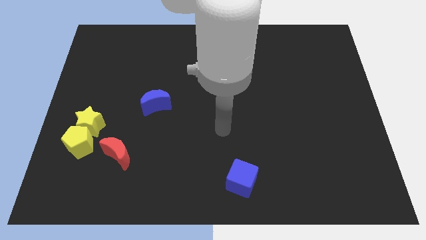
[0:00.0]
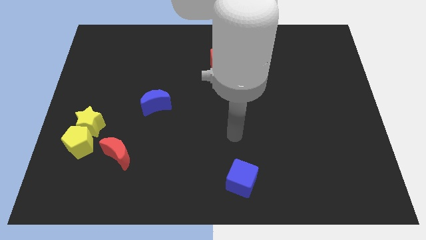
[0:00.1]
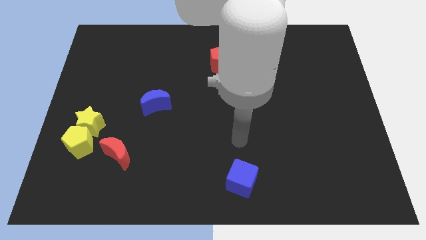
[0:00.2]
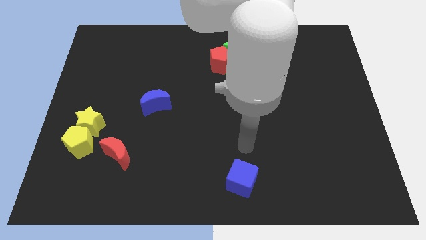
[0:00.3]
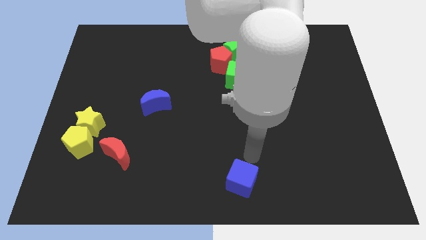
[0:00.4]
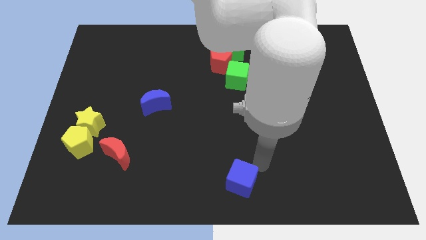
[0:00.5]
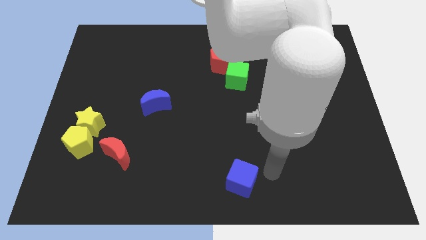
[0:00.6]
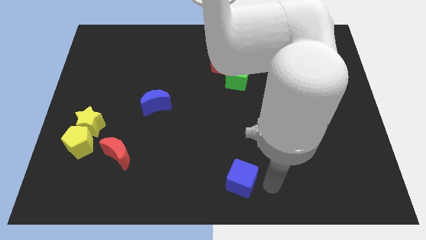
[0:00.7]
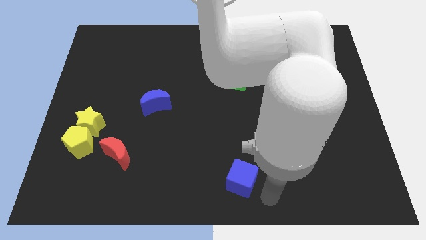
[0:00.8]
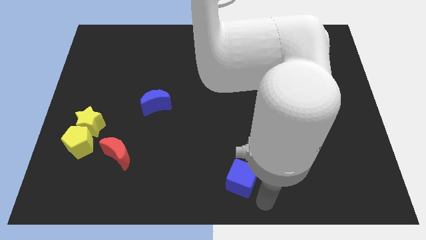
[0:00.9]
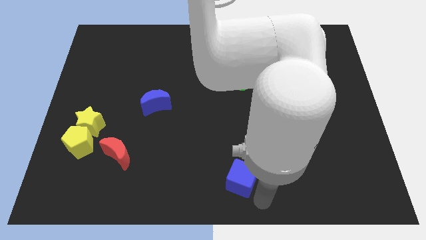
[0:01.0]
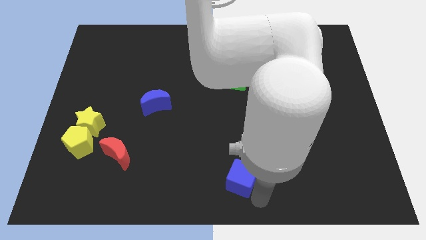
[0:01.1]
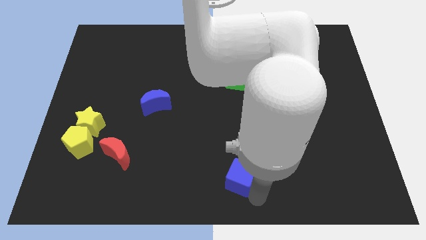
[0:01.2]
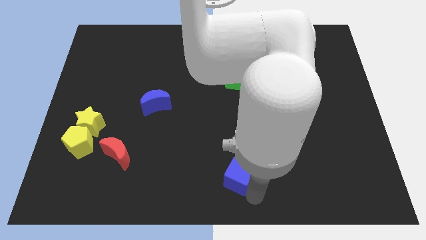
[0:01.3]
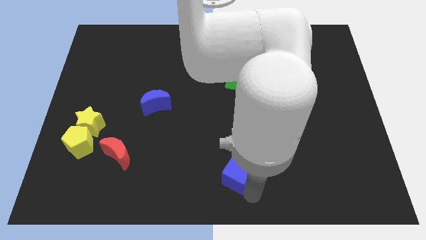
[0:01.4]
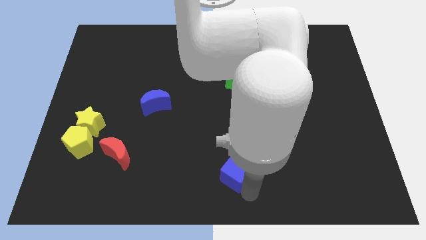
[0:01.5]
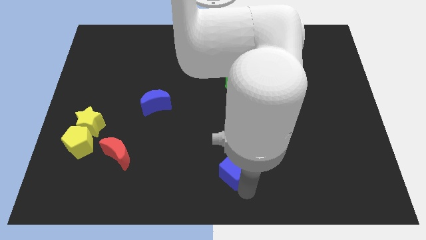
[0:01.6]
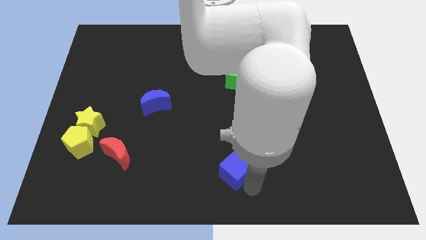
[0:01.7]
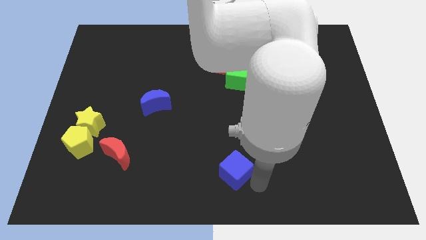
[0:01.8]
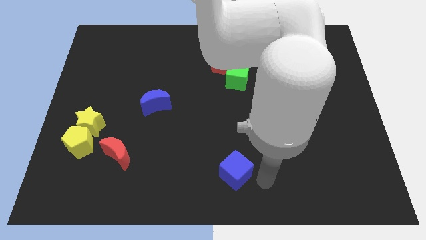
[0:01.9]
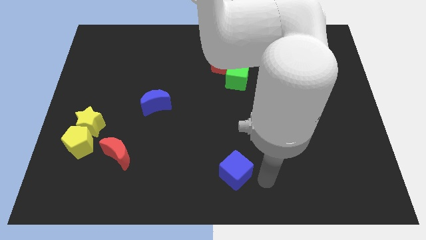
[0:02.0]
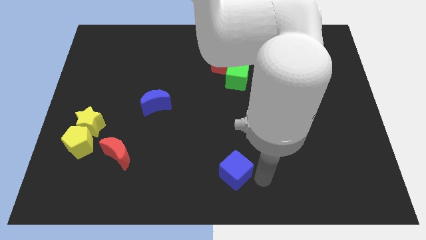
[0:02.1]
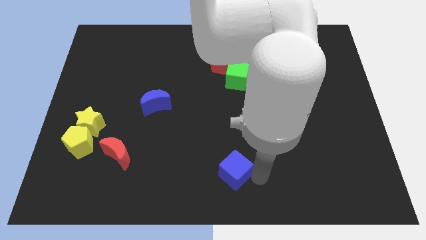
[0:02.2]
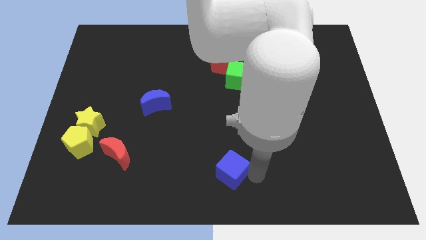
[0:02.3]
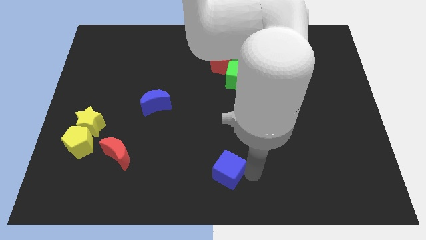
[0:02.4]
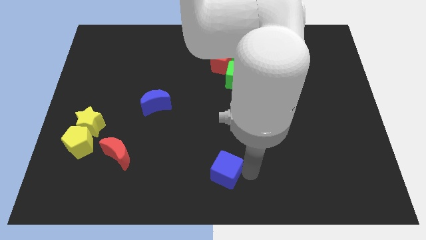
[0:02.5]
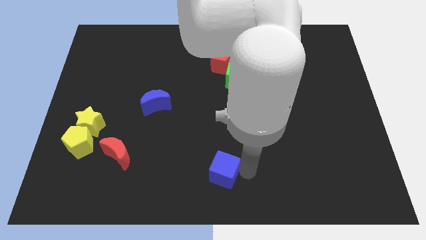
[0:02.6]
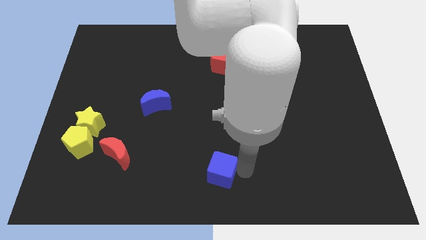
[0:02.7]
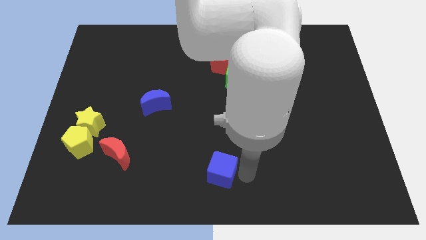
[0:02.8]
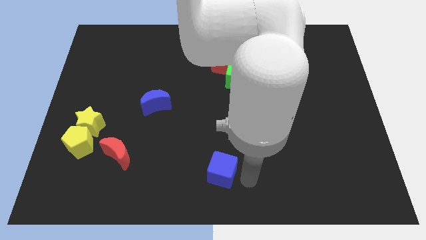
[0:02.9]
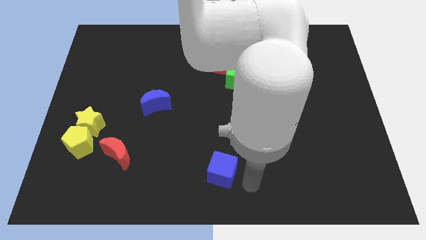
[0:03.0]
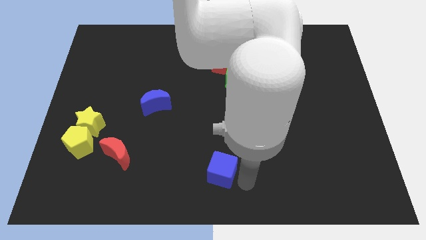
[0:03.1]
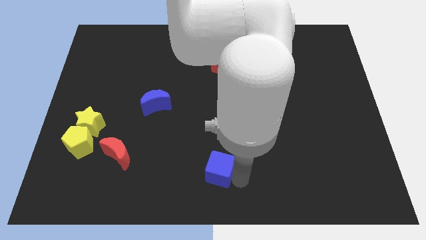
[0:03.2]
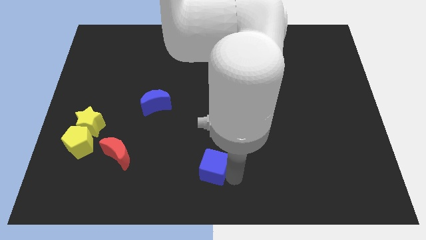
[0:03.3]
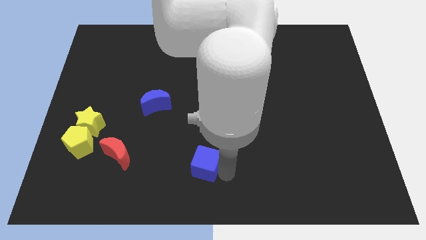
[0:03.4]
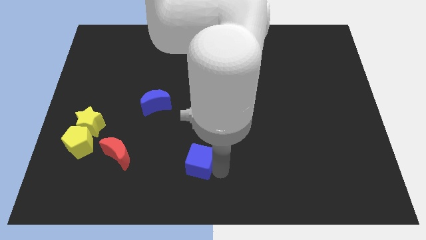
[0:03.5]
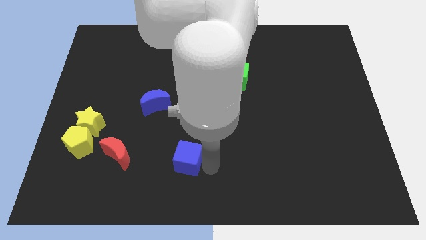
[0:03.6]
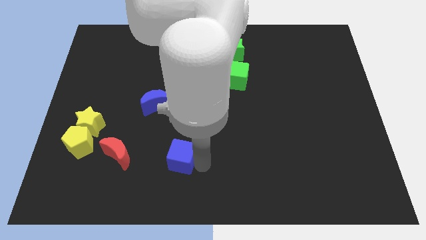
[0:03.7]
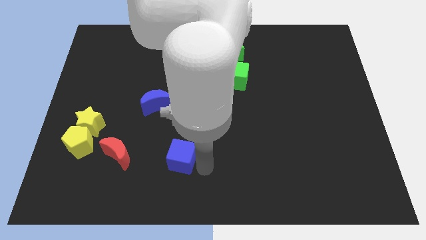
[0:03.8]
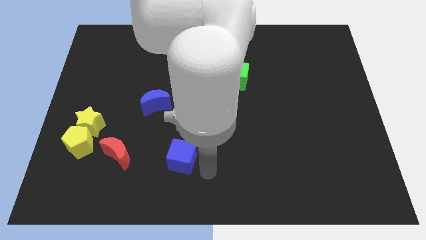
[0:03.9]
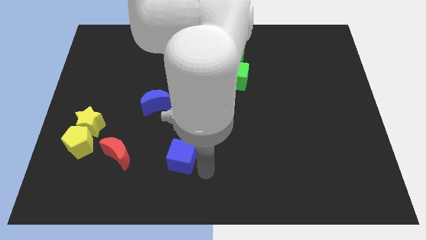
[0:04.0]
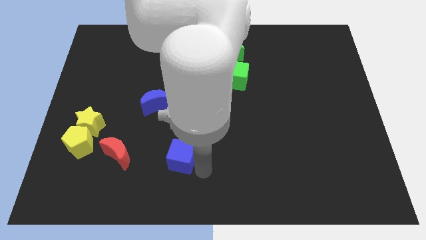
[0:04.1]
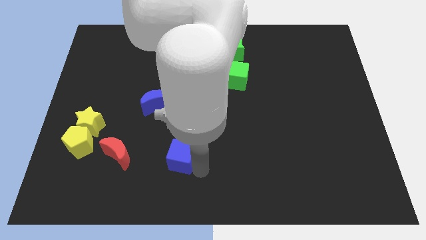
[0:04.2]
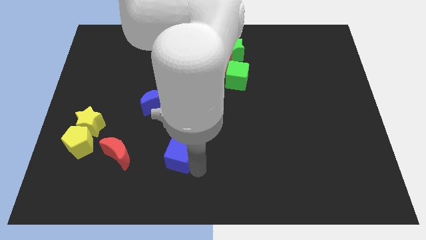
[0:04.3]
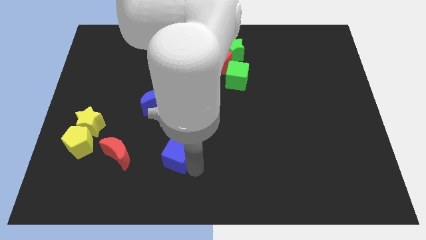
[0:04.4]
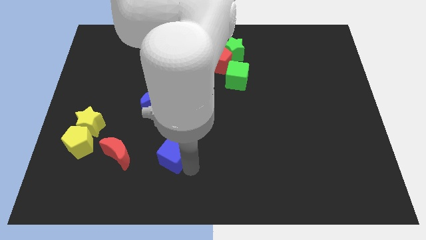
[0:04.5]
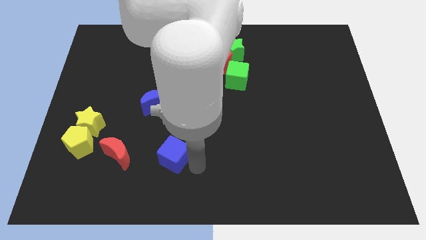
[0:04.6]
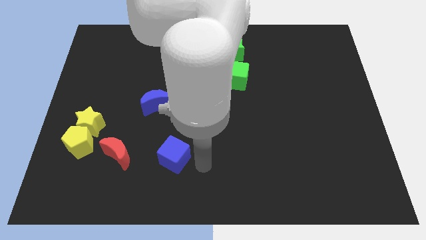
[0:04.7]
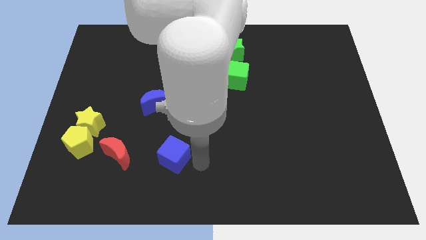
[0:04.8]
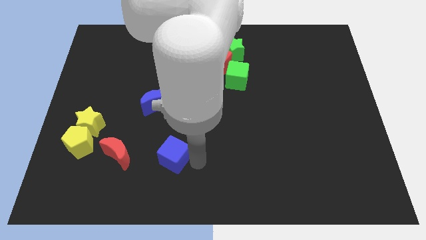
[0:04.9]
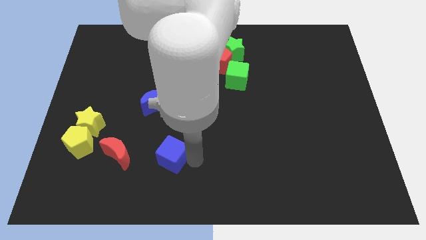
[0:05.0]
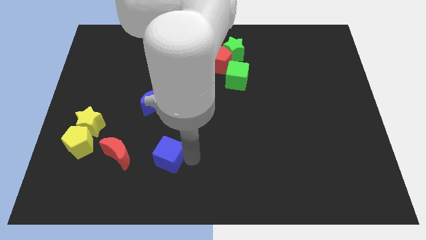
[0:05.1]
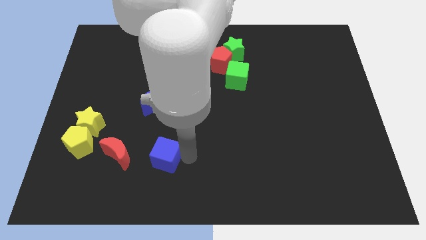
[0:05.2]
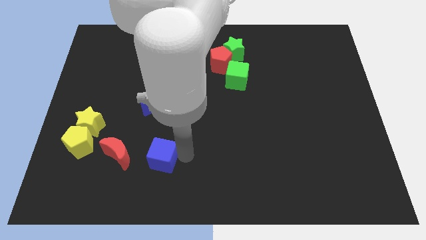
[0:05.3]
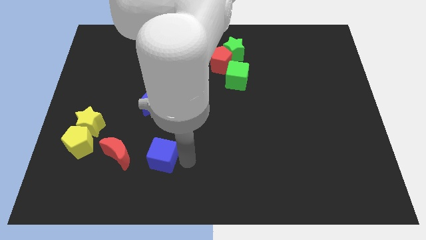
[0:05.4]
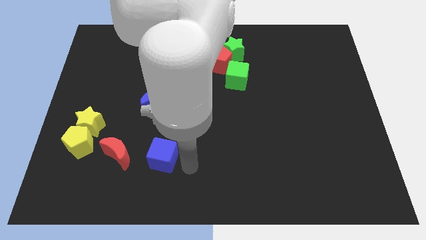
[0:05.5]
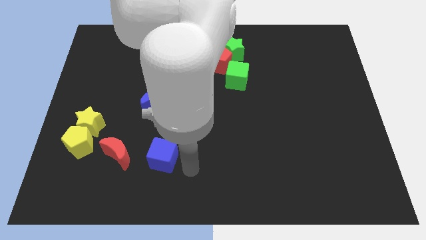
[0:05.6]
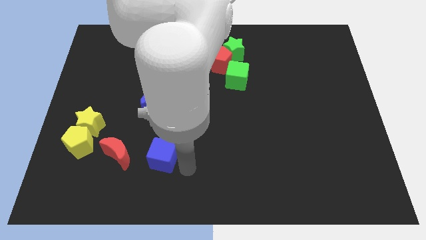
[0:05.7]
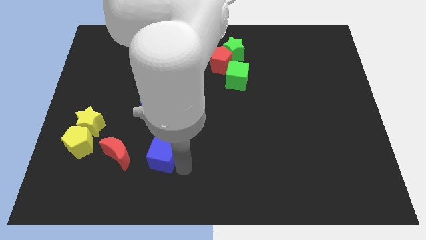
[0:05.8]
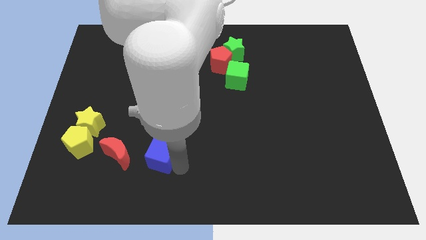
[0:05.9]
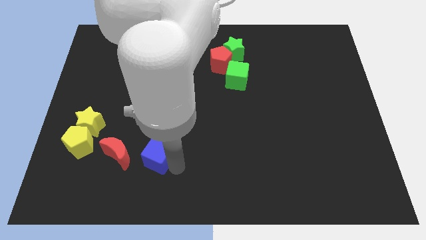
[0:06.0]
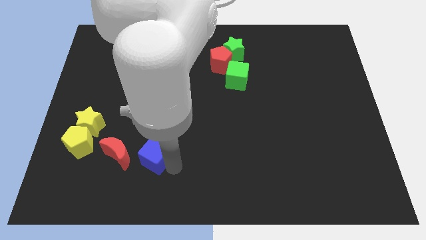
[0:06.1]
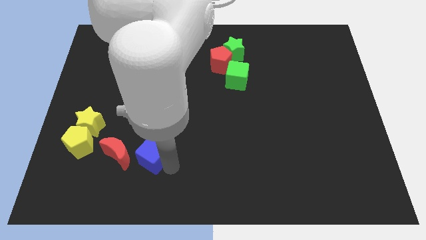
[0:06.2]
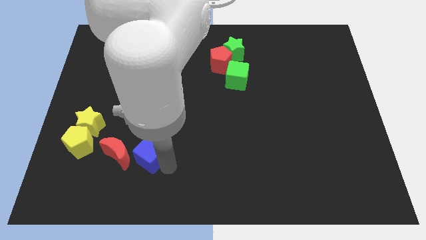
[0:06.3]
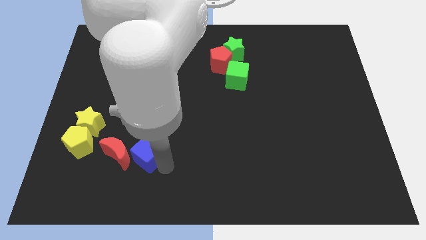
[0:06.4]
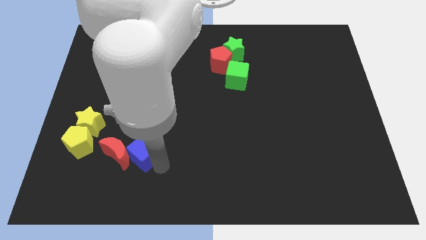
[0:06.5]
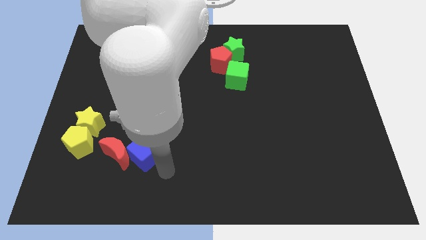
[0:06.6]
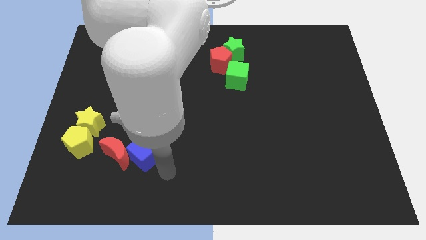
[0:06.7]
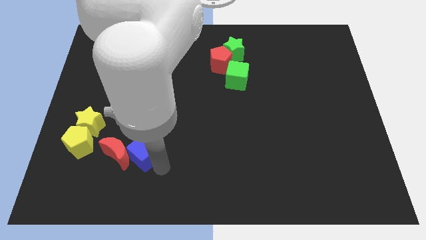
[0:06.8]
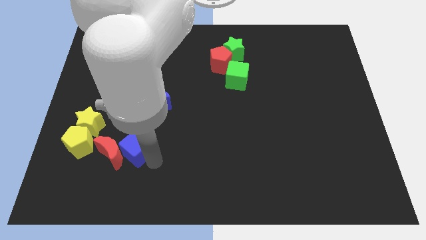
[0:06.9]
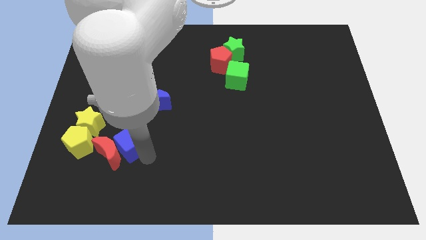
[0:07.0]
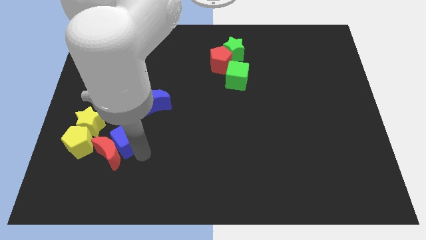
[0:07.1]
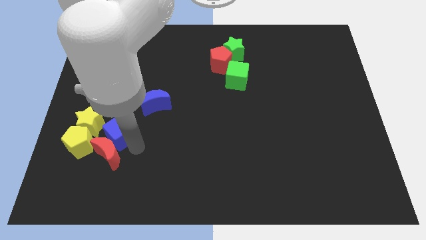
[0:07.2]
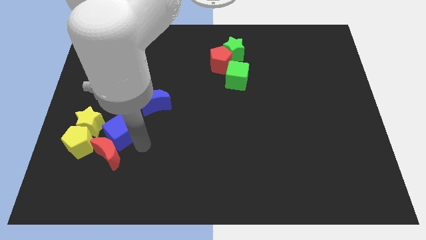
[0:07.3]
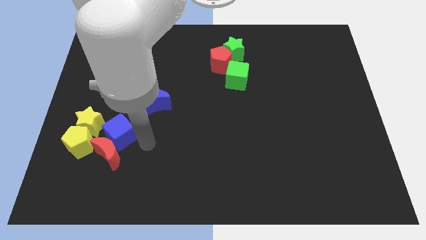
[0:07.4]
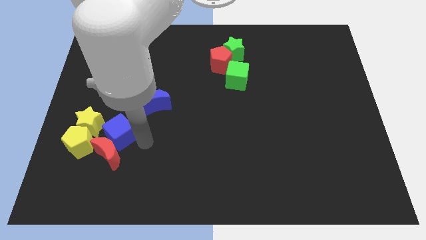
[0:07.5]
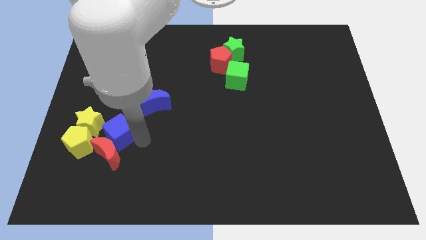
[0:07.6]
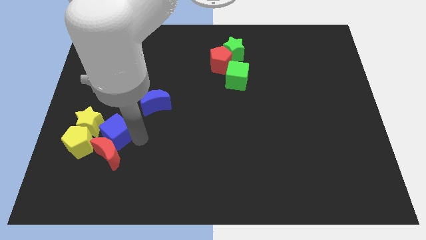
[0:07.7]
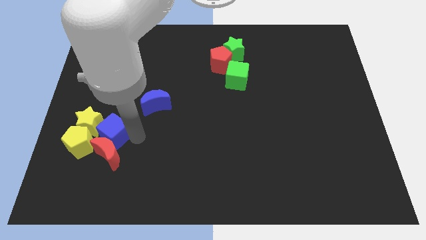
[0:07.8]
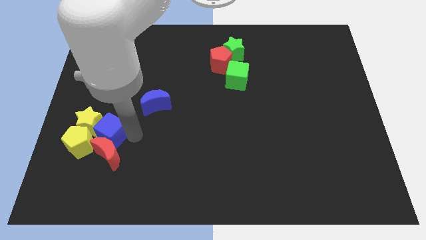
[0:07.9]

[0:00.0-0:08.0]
move the blue cube close to the yellow star
